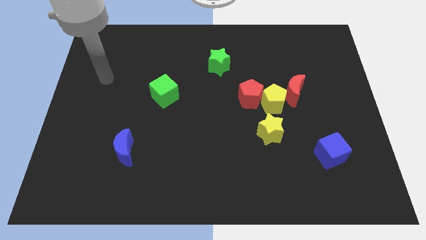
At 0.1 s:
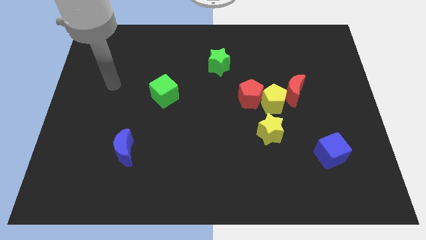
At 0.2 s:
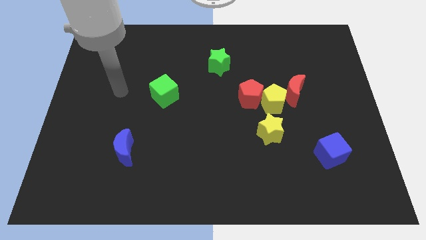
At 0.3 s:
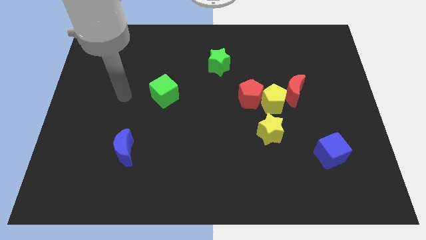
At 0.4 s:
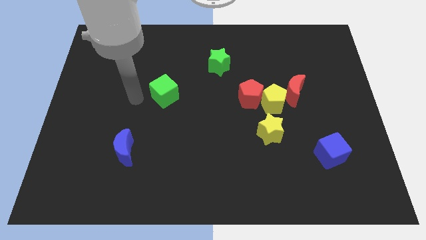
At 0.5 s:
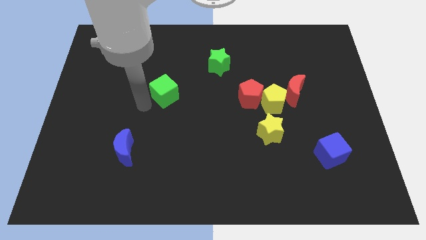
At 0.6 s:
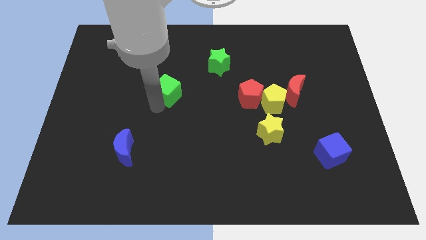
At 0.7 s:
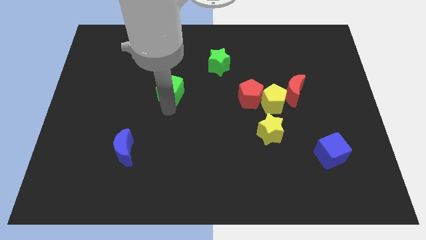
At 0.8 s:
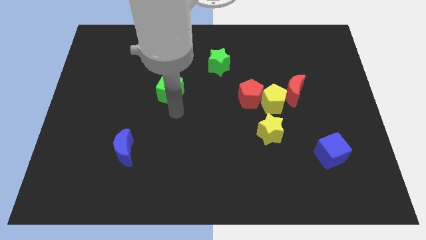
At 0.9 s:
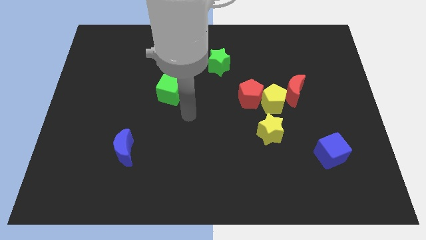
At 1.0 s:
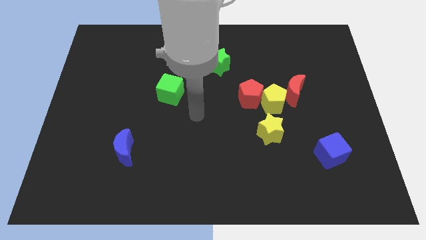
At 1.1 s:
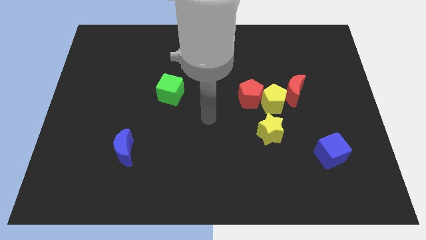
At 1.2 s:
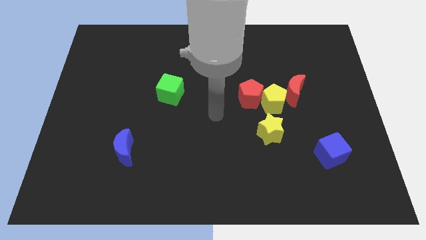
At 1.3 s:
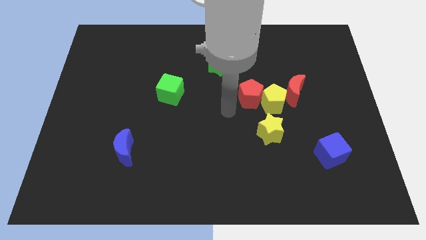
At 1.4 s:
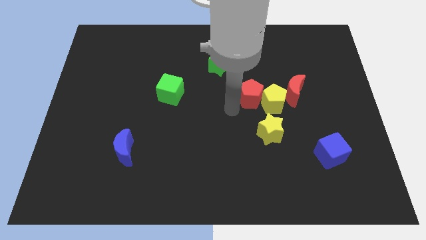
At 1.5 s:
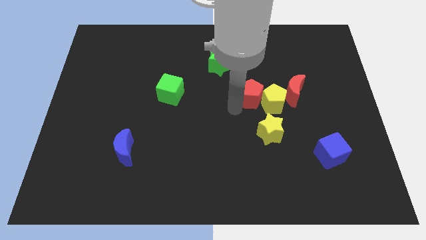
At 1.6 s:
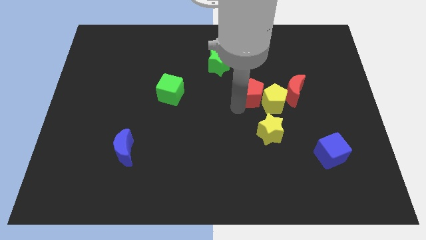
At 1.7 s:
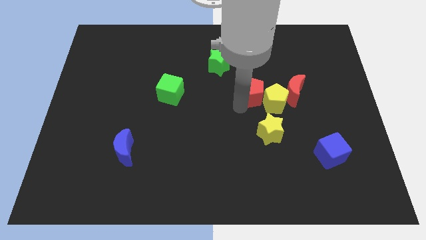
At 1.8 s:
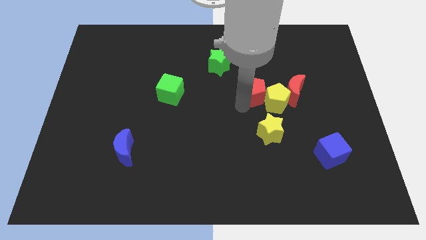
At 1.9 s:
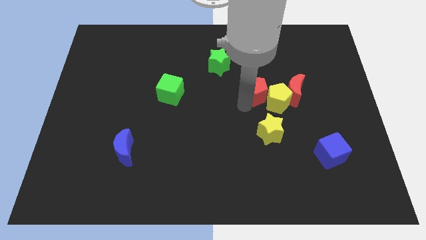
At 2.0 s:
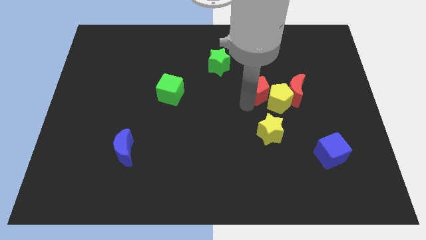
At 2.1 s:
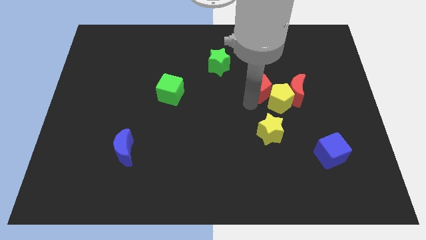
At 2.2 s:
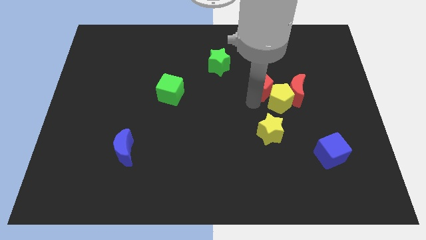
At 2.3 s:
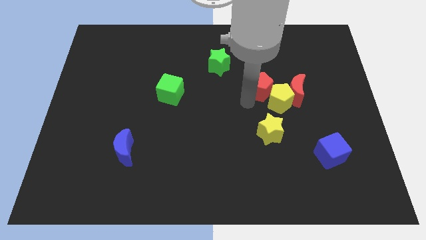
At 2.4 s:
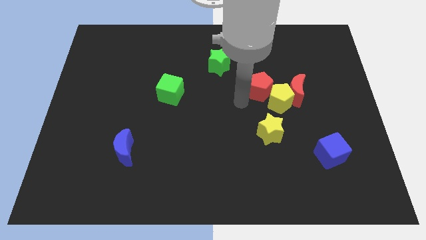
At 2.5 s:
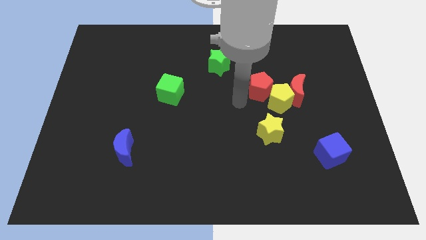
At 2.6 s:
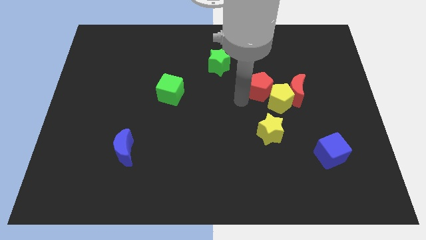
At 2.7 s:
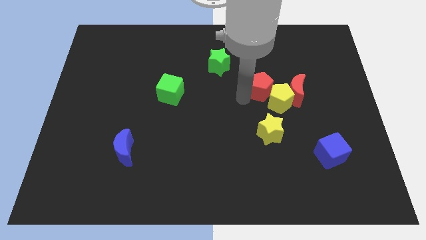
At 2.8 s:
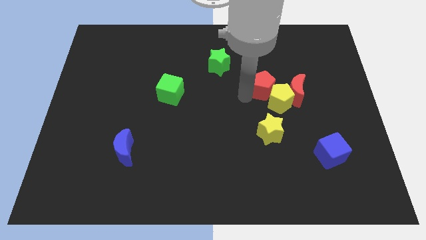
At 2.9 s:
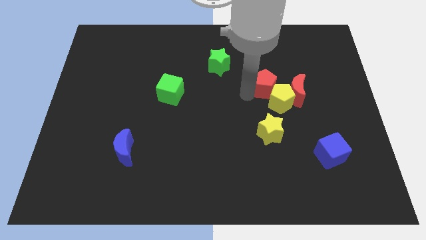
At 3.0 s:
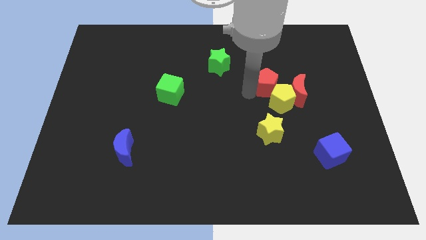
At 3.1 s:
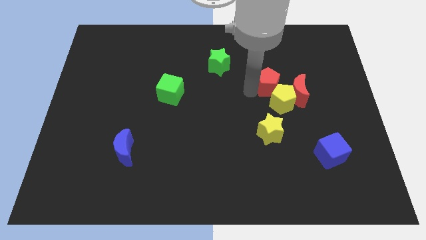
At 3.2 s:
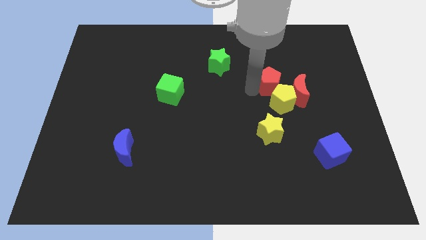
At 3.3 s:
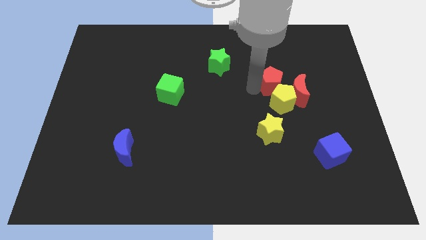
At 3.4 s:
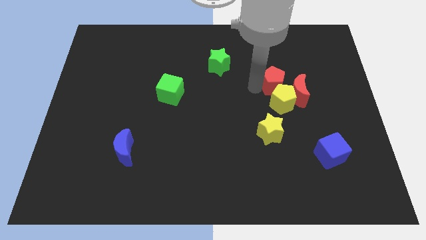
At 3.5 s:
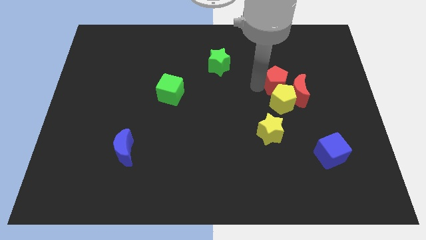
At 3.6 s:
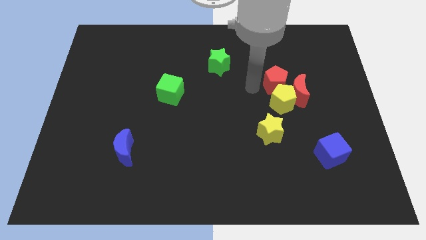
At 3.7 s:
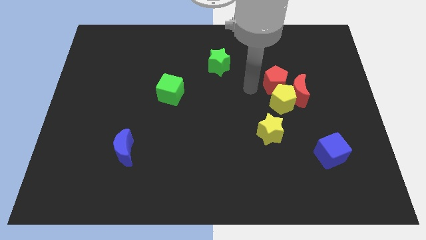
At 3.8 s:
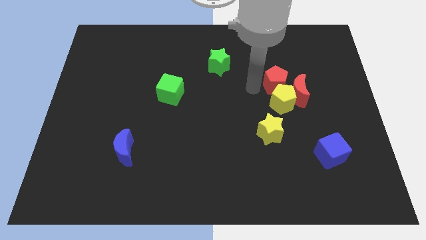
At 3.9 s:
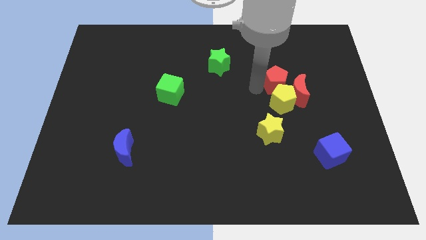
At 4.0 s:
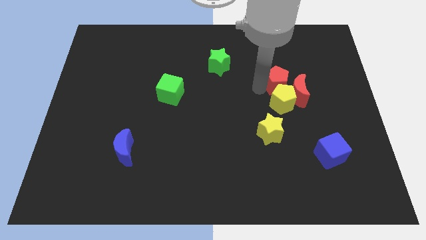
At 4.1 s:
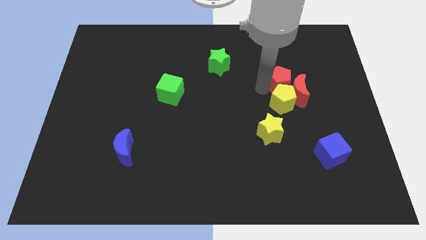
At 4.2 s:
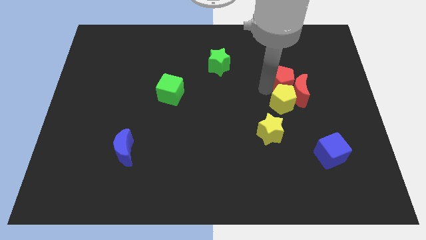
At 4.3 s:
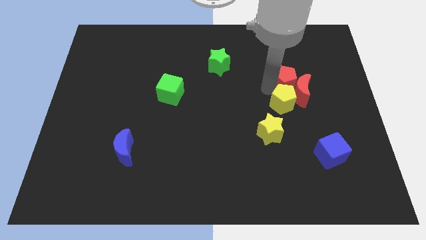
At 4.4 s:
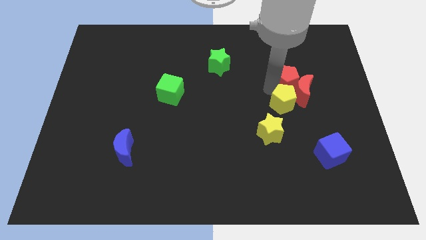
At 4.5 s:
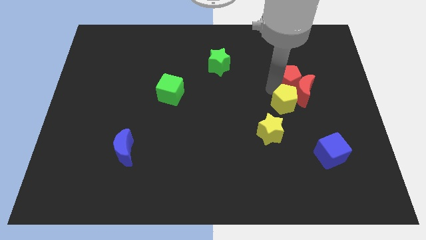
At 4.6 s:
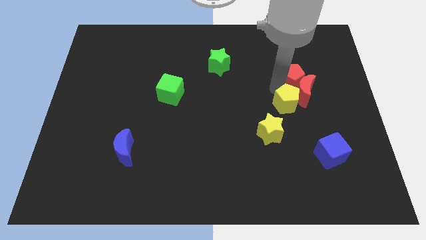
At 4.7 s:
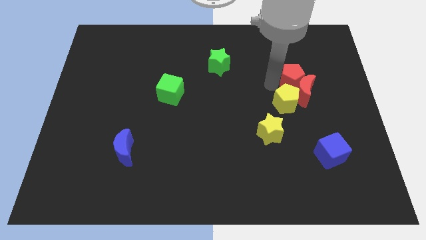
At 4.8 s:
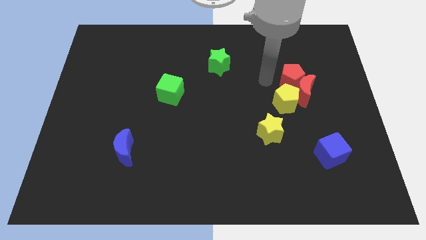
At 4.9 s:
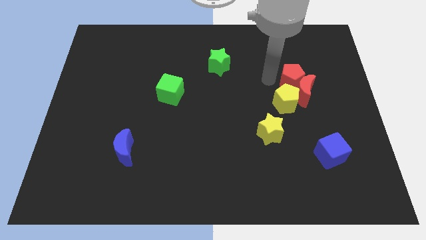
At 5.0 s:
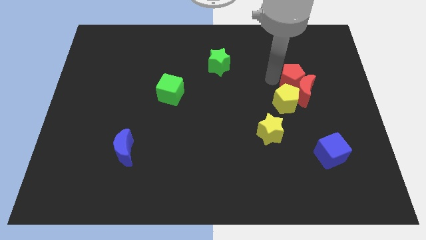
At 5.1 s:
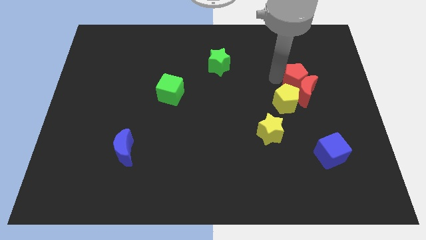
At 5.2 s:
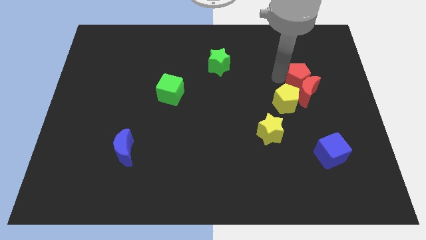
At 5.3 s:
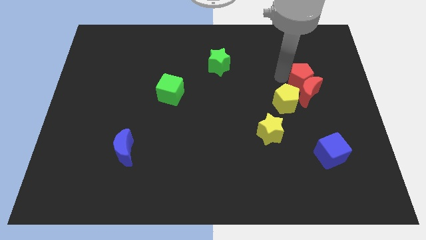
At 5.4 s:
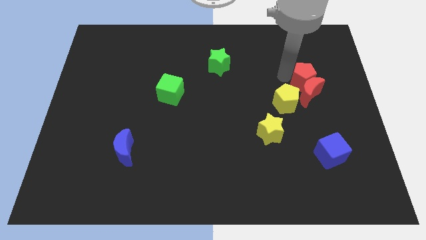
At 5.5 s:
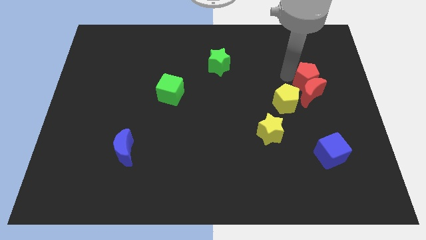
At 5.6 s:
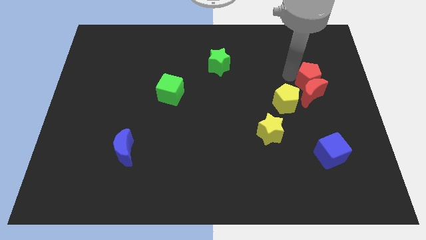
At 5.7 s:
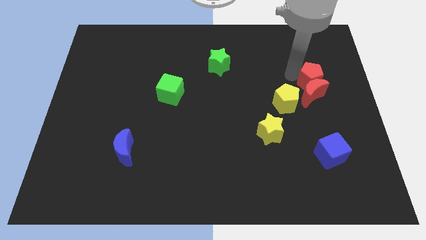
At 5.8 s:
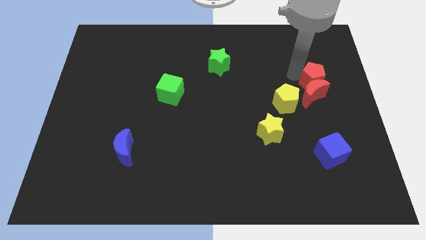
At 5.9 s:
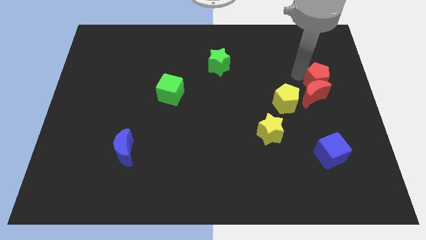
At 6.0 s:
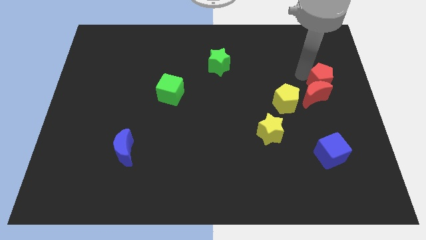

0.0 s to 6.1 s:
push the red pentagon to the center right
